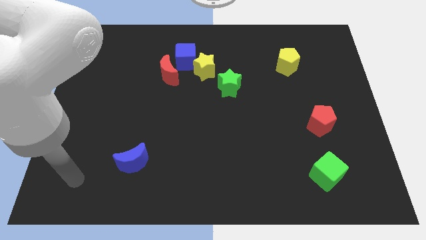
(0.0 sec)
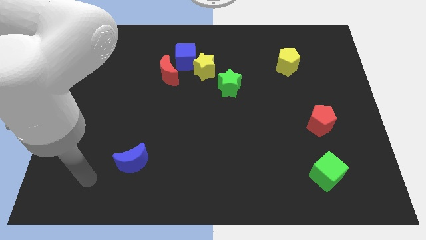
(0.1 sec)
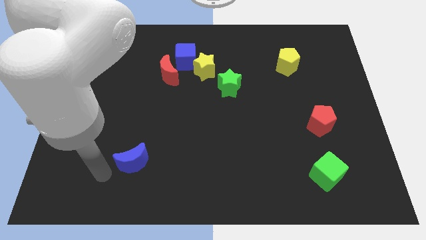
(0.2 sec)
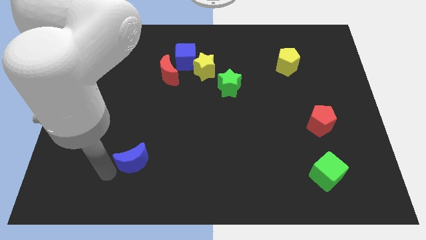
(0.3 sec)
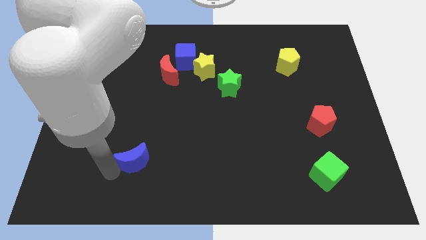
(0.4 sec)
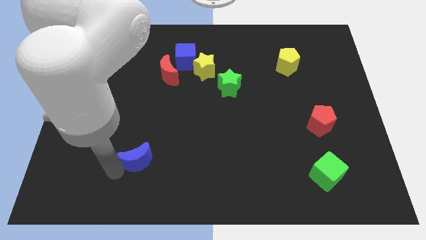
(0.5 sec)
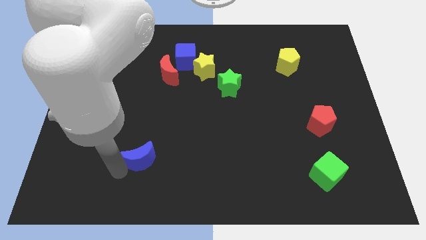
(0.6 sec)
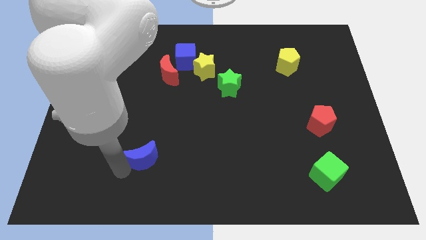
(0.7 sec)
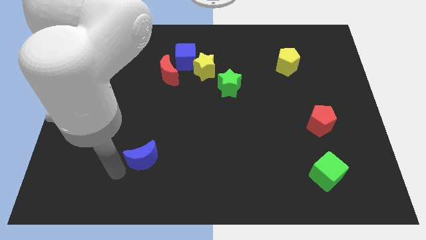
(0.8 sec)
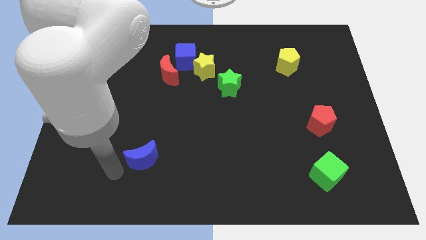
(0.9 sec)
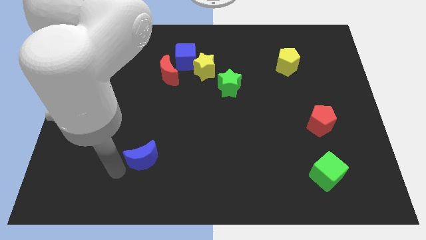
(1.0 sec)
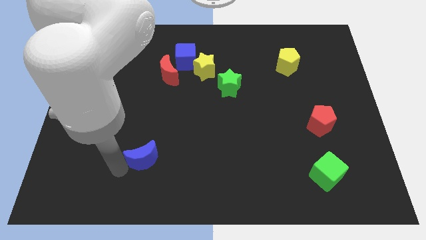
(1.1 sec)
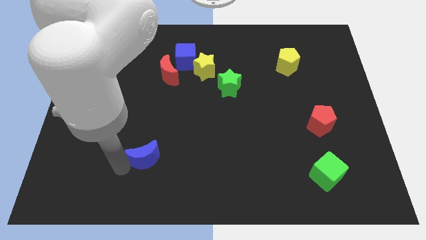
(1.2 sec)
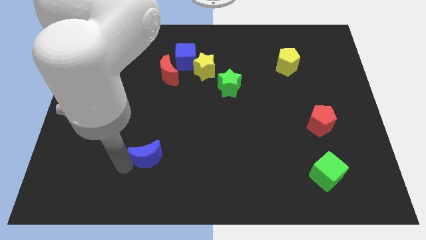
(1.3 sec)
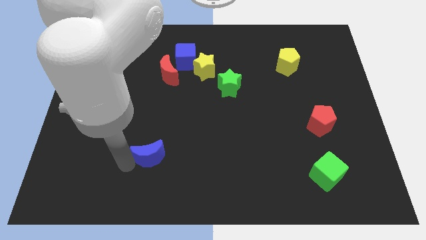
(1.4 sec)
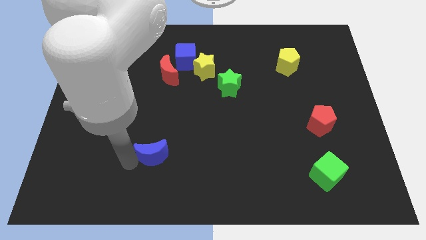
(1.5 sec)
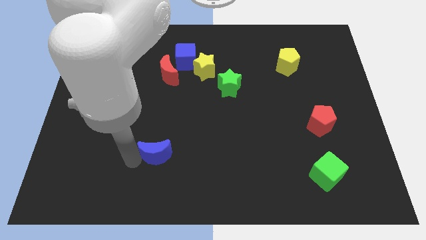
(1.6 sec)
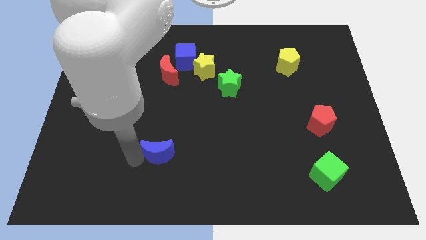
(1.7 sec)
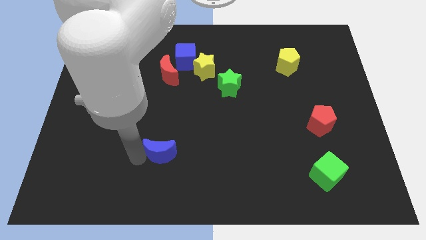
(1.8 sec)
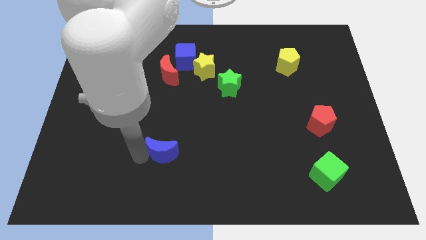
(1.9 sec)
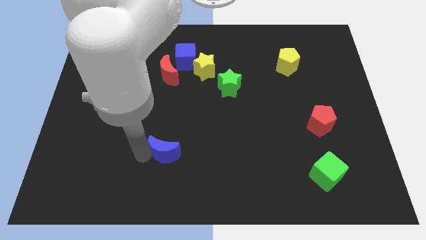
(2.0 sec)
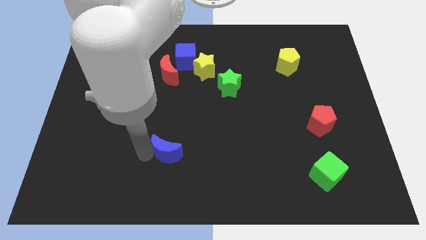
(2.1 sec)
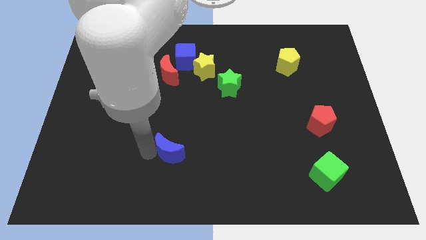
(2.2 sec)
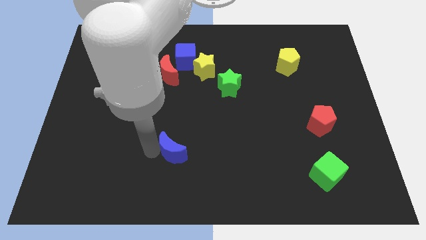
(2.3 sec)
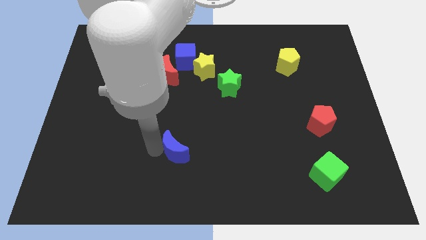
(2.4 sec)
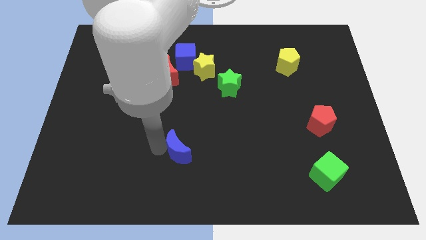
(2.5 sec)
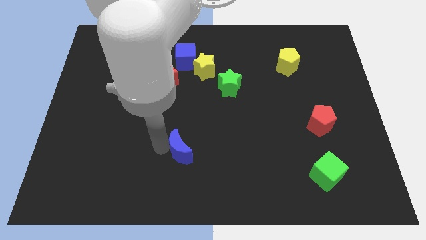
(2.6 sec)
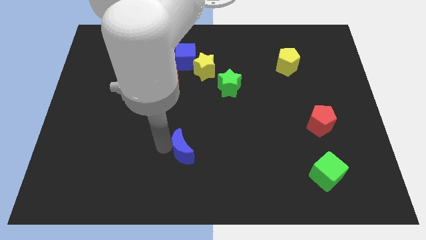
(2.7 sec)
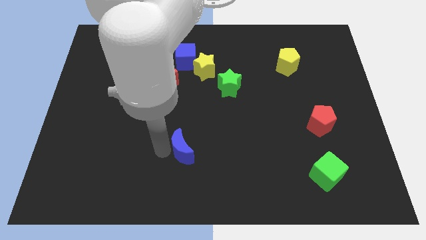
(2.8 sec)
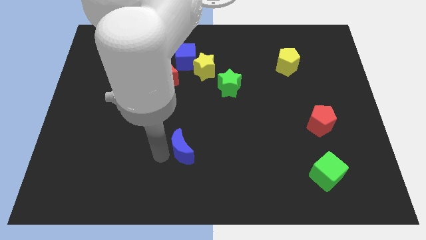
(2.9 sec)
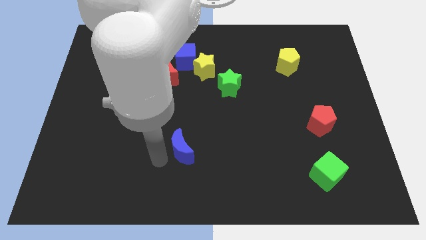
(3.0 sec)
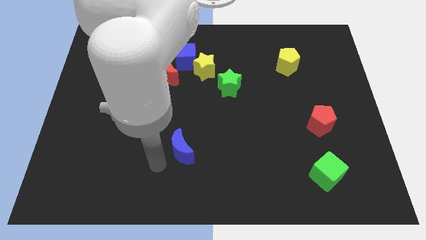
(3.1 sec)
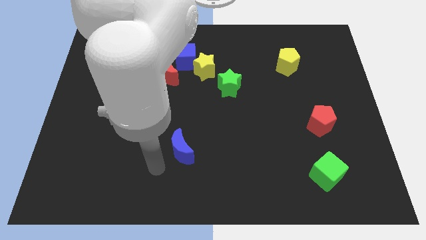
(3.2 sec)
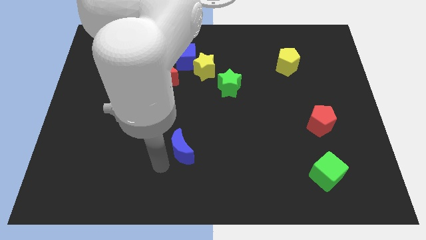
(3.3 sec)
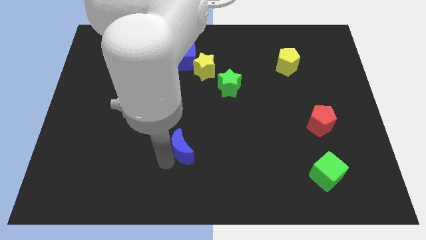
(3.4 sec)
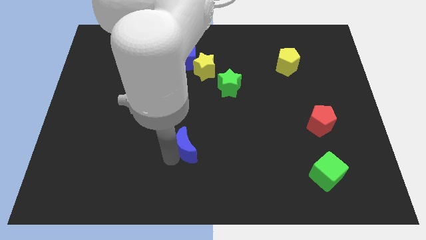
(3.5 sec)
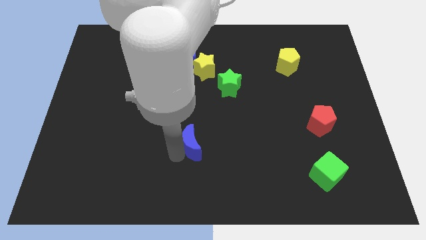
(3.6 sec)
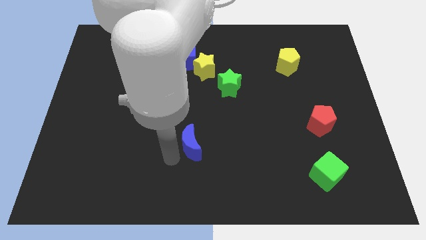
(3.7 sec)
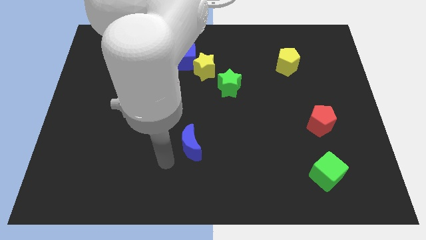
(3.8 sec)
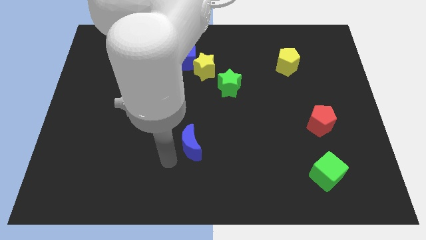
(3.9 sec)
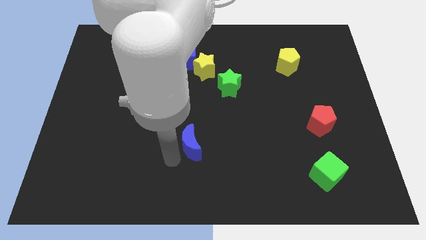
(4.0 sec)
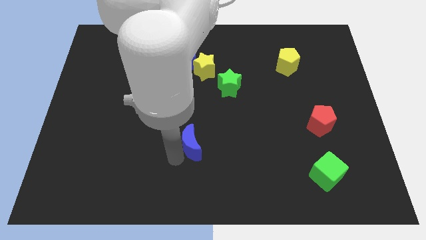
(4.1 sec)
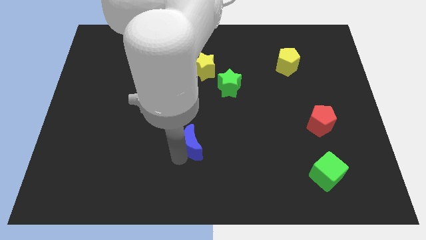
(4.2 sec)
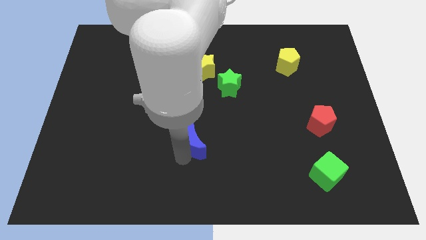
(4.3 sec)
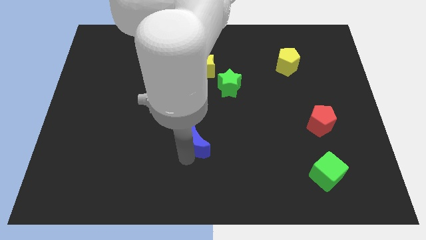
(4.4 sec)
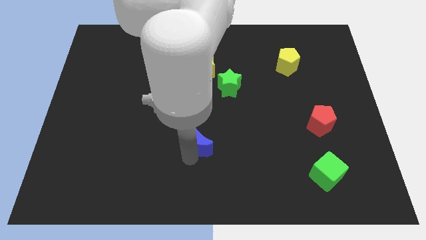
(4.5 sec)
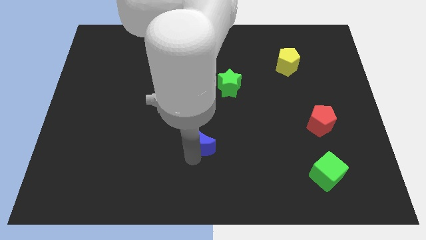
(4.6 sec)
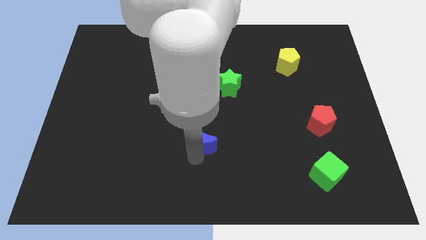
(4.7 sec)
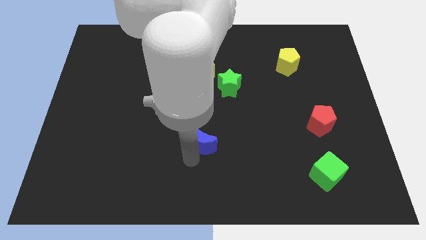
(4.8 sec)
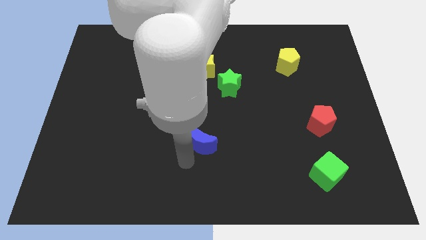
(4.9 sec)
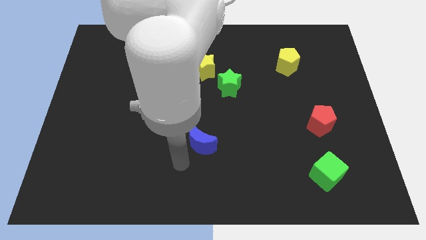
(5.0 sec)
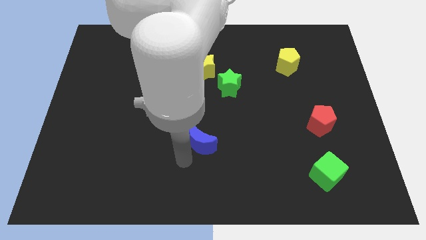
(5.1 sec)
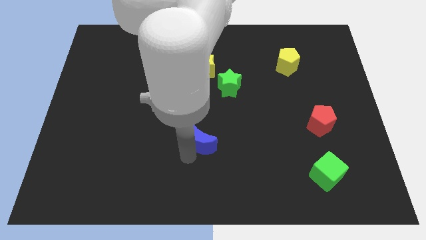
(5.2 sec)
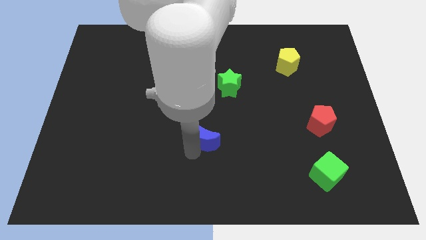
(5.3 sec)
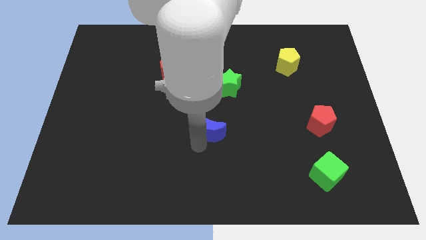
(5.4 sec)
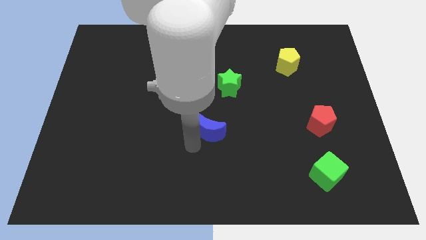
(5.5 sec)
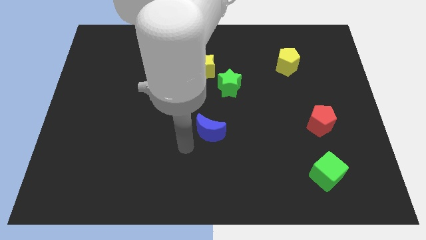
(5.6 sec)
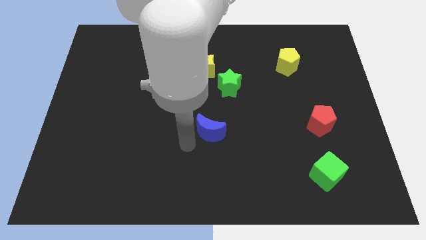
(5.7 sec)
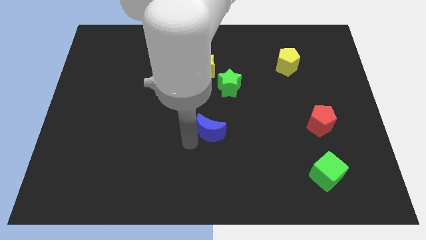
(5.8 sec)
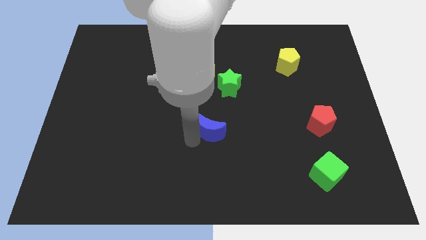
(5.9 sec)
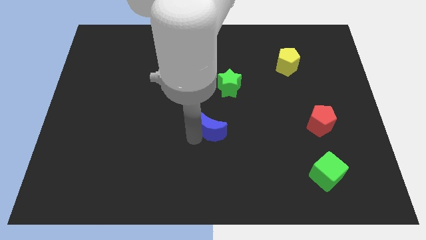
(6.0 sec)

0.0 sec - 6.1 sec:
put the blue moon to the bottom of the green star
